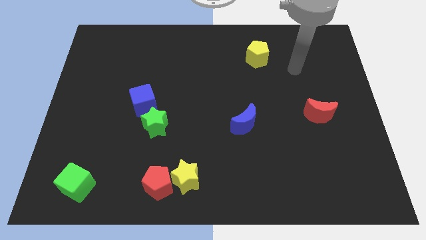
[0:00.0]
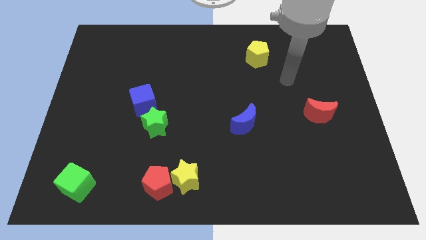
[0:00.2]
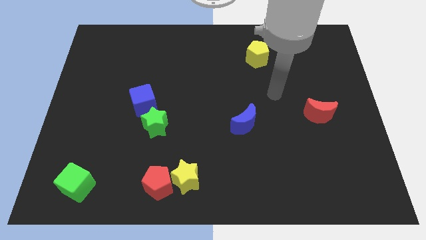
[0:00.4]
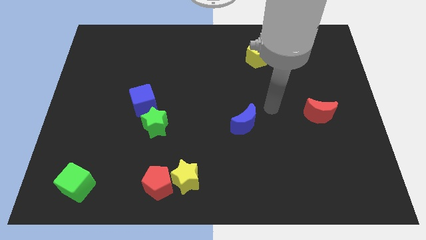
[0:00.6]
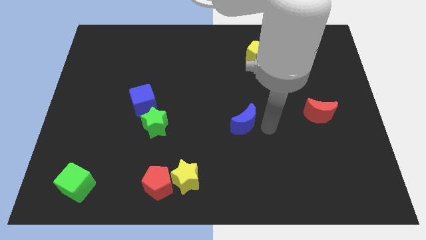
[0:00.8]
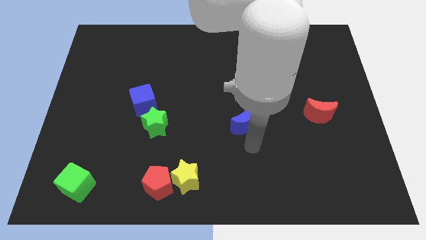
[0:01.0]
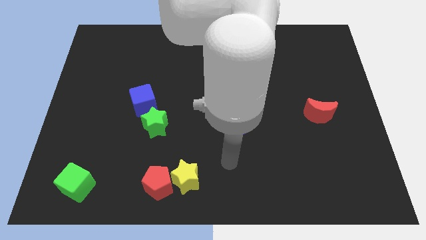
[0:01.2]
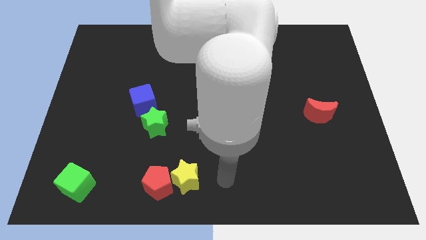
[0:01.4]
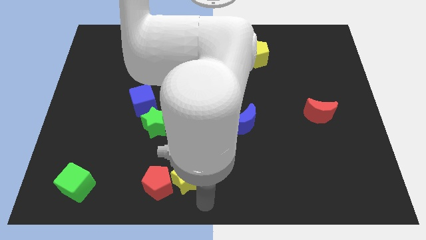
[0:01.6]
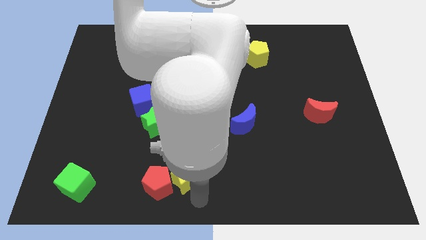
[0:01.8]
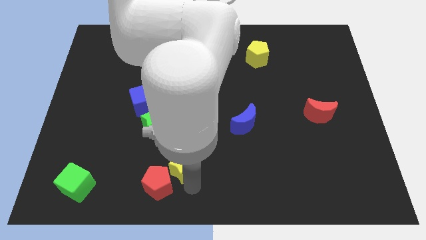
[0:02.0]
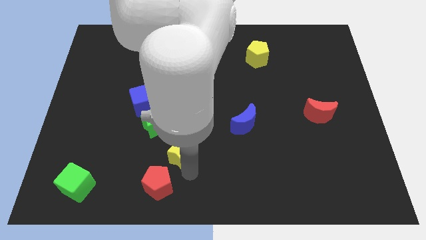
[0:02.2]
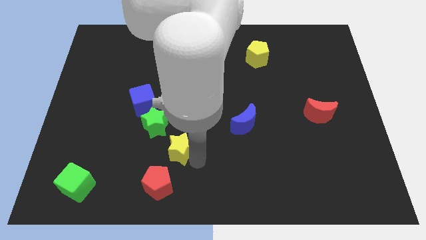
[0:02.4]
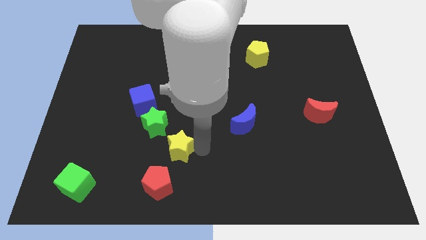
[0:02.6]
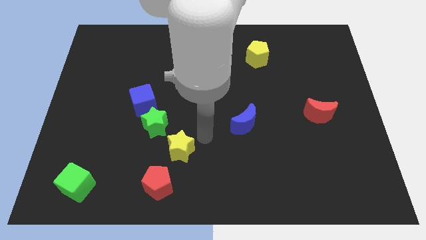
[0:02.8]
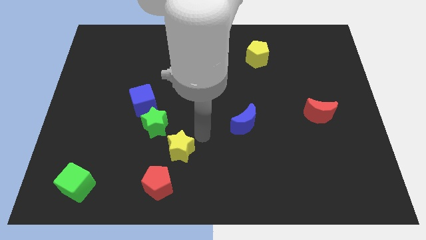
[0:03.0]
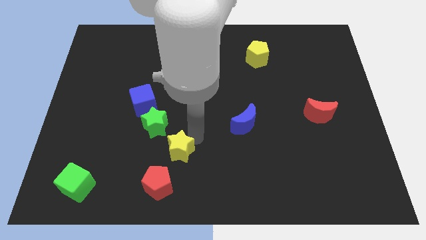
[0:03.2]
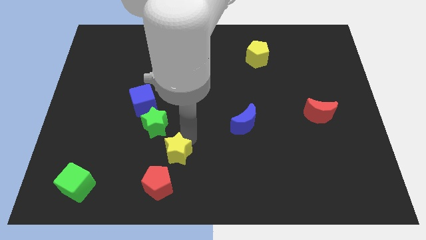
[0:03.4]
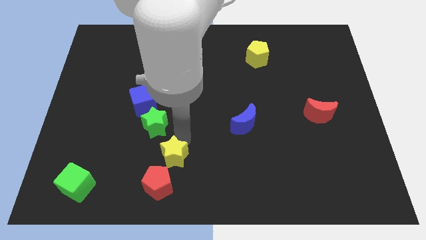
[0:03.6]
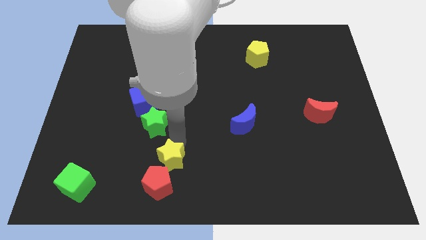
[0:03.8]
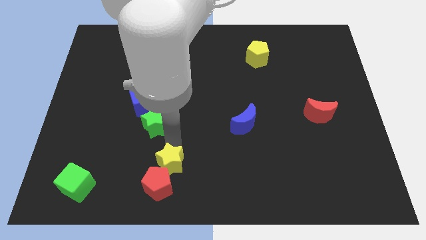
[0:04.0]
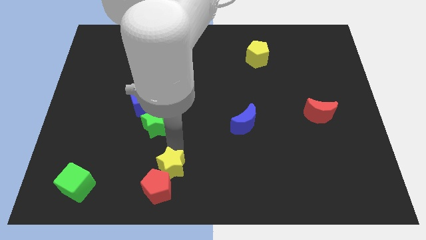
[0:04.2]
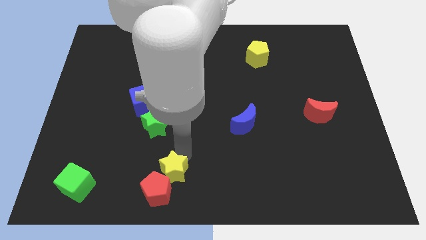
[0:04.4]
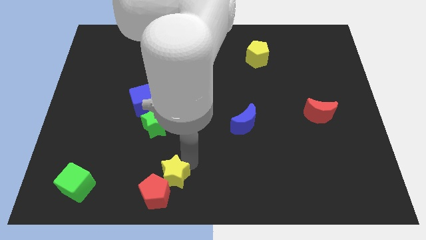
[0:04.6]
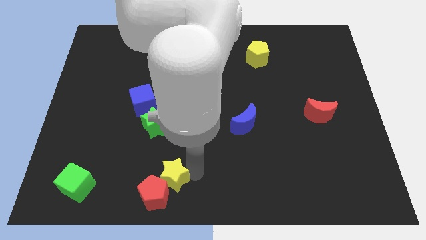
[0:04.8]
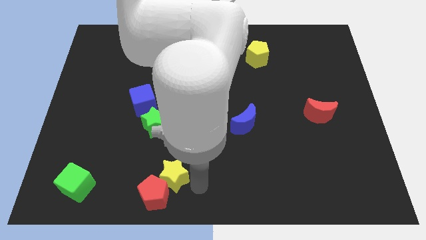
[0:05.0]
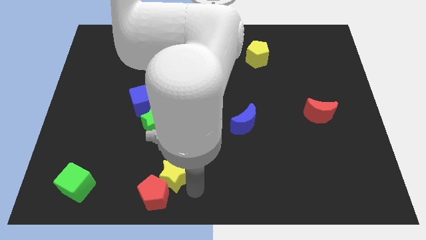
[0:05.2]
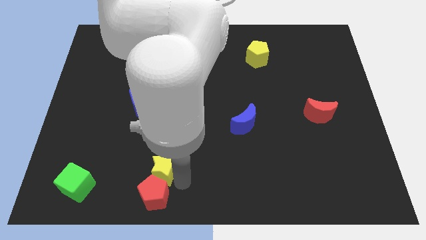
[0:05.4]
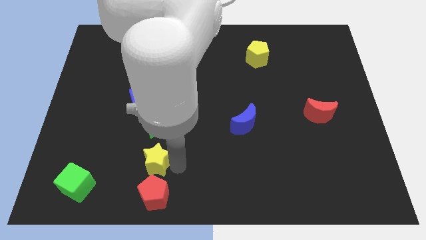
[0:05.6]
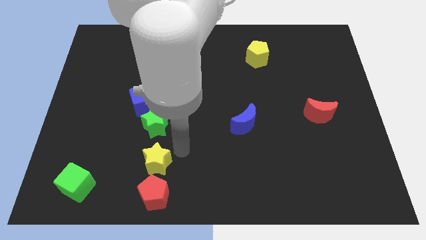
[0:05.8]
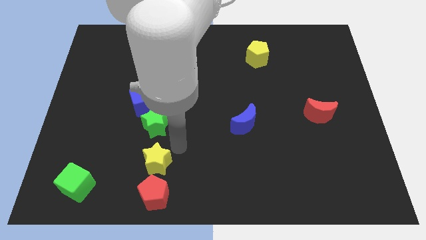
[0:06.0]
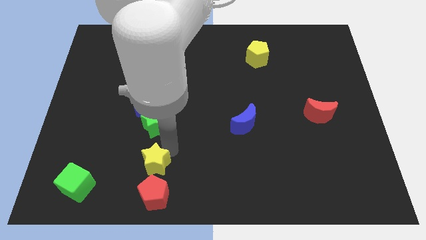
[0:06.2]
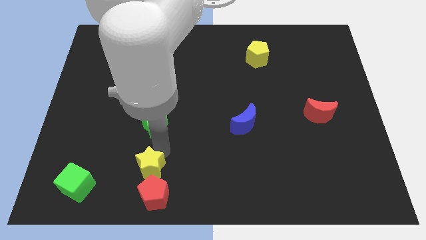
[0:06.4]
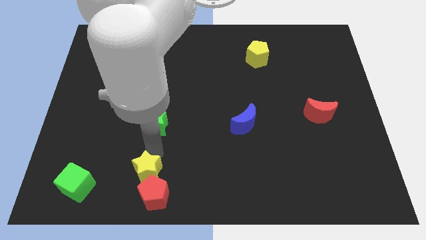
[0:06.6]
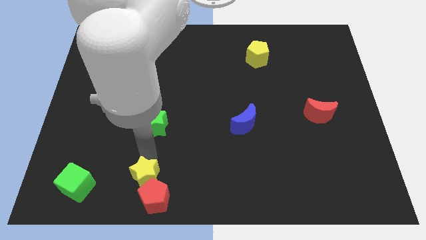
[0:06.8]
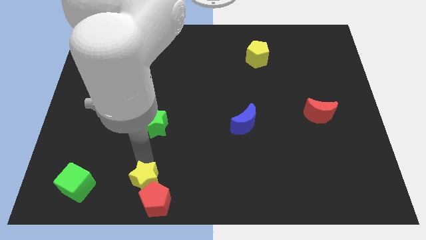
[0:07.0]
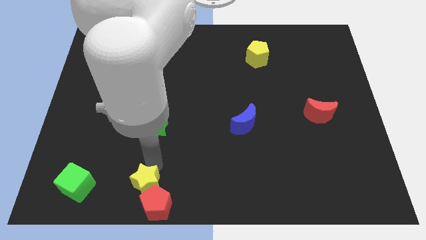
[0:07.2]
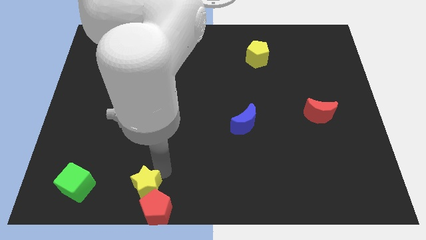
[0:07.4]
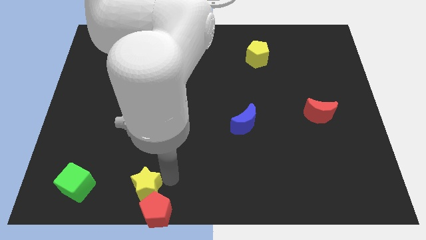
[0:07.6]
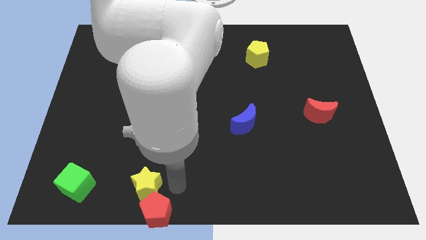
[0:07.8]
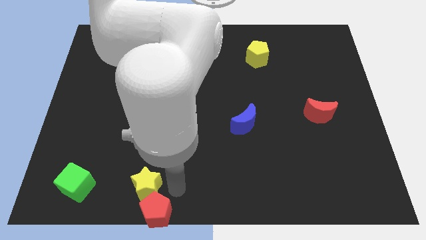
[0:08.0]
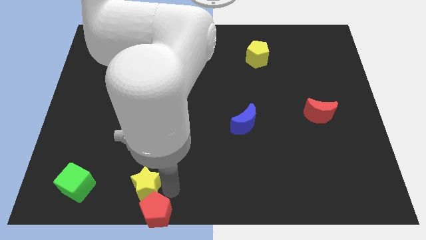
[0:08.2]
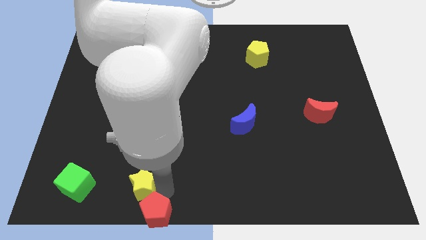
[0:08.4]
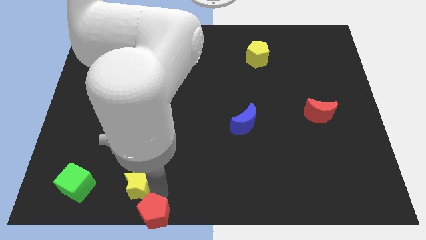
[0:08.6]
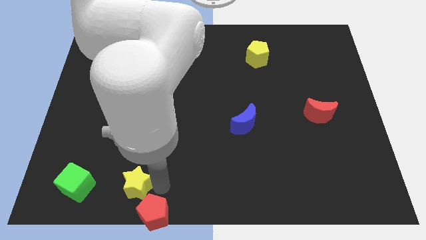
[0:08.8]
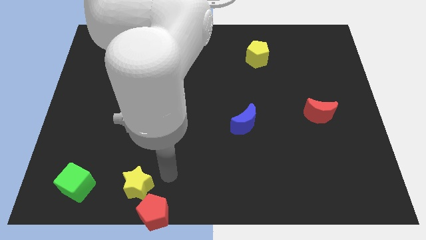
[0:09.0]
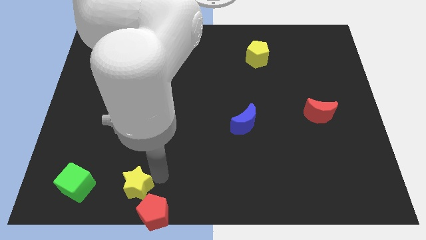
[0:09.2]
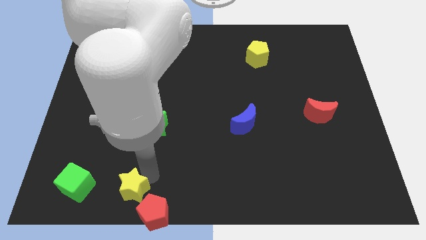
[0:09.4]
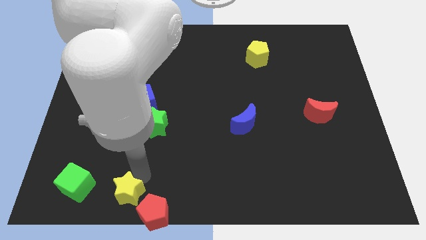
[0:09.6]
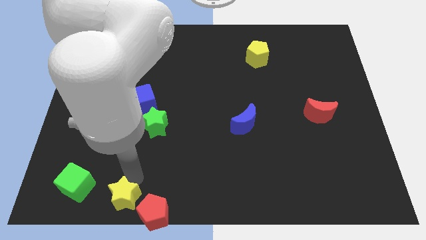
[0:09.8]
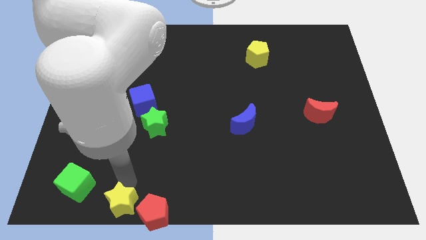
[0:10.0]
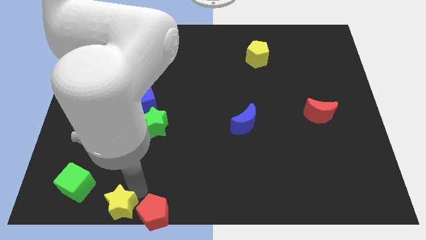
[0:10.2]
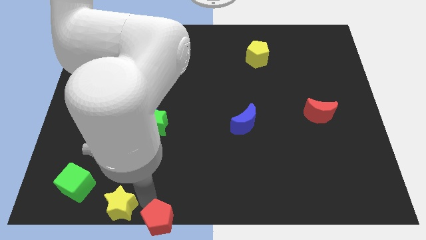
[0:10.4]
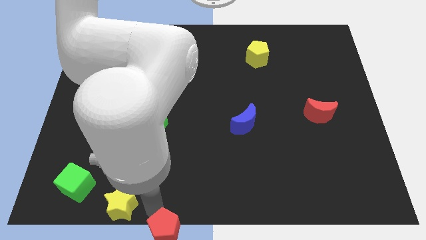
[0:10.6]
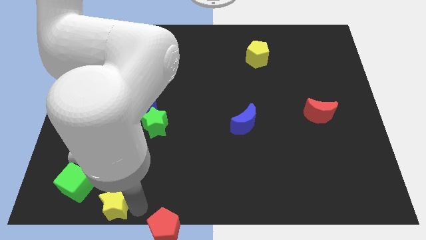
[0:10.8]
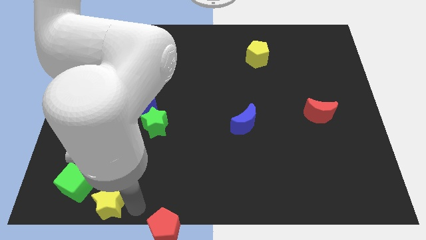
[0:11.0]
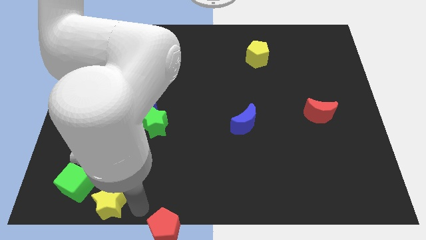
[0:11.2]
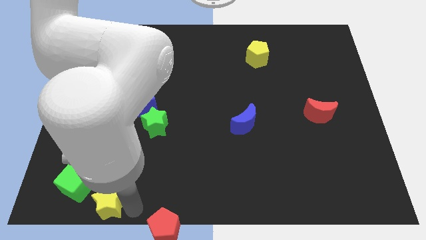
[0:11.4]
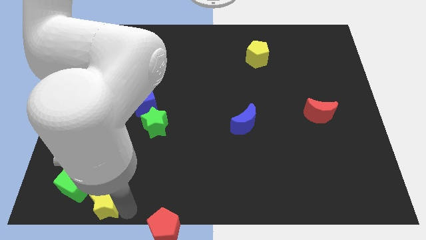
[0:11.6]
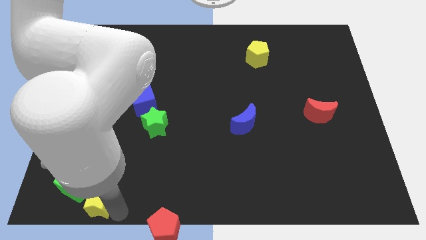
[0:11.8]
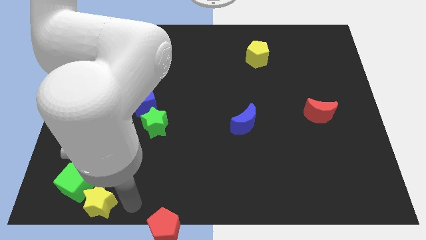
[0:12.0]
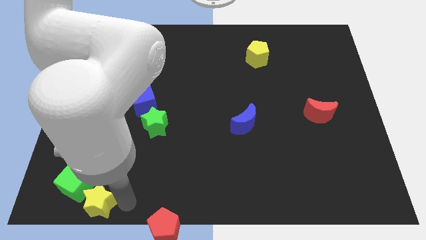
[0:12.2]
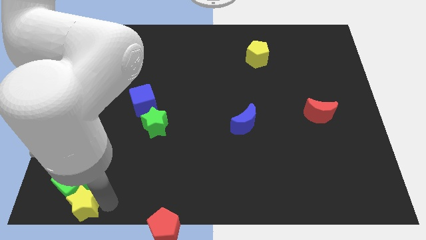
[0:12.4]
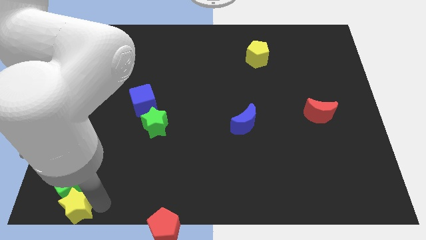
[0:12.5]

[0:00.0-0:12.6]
push the yellow star to the bottom left corner

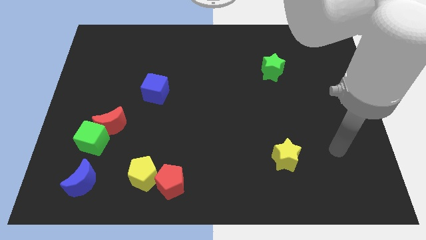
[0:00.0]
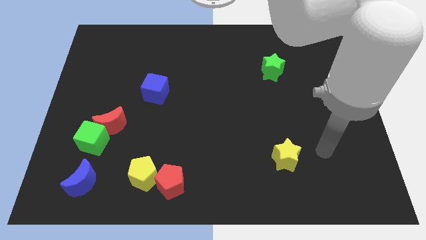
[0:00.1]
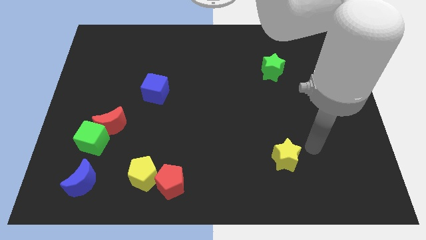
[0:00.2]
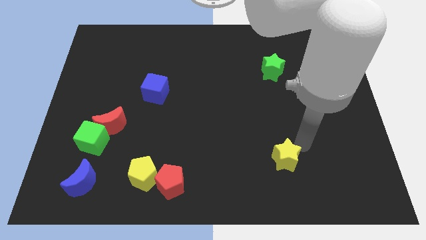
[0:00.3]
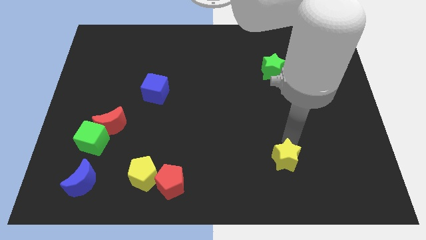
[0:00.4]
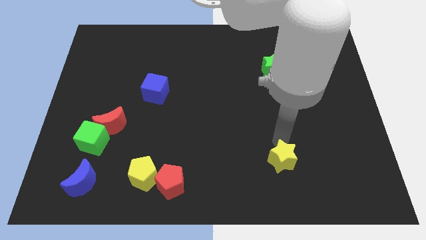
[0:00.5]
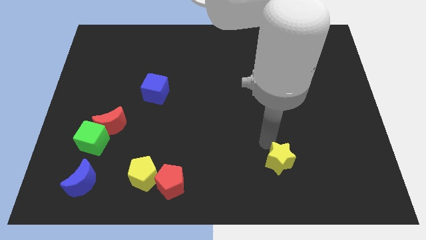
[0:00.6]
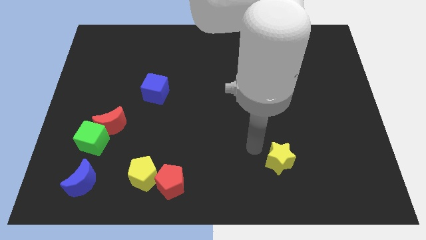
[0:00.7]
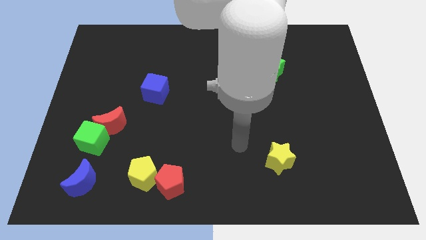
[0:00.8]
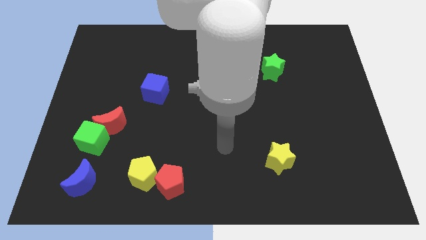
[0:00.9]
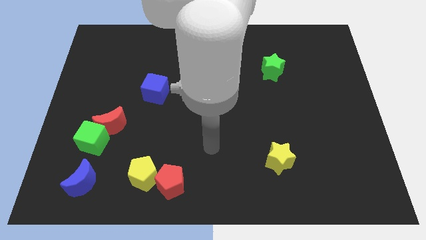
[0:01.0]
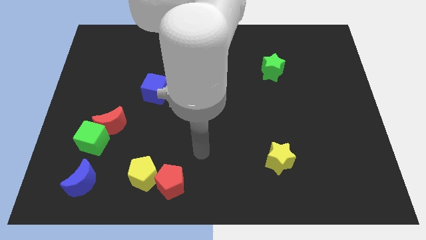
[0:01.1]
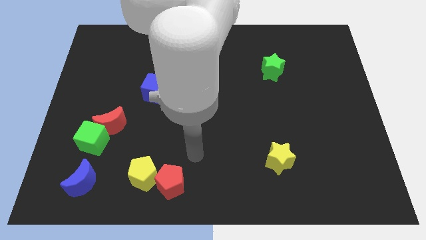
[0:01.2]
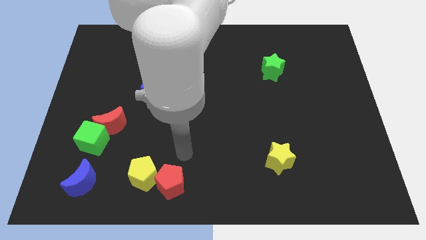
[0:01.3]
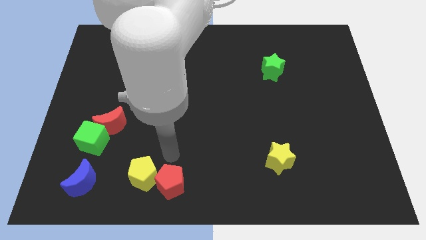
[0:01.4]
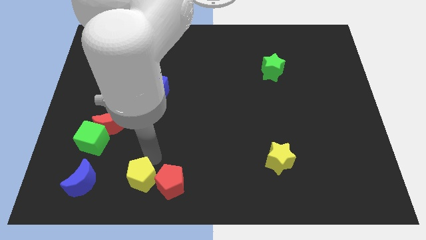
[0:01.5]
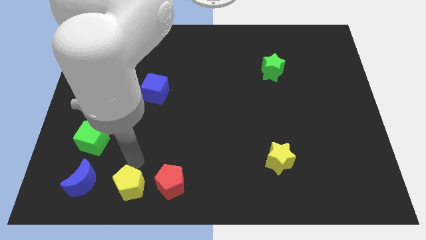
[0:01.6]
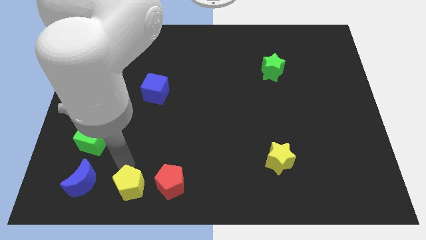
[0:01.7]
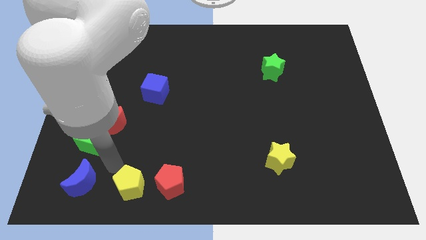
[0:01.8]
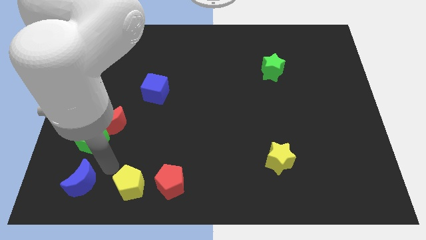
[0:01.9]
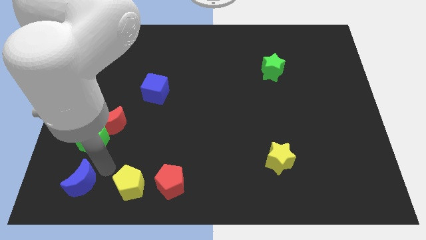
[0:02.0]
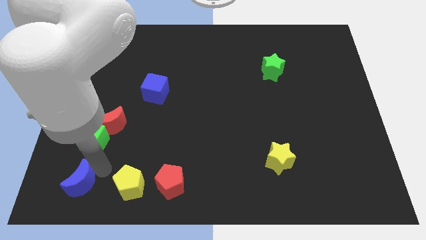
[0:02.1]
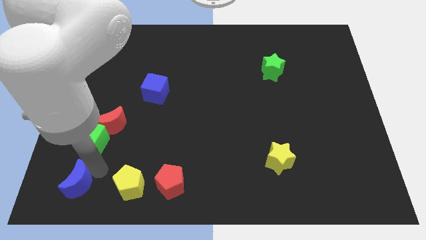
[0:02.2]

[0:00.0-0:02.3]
move the blue moon to the lower left corner
